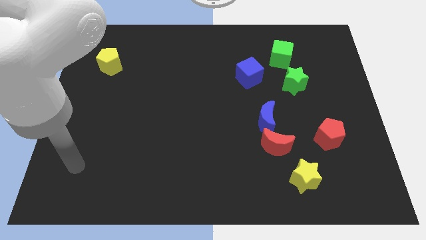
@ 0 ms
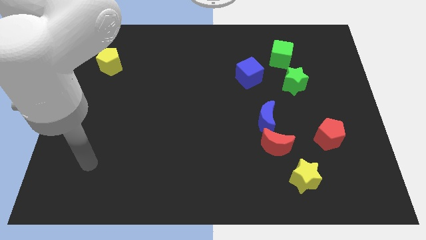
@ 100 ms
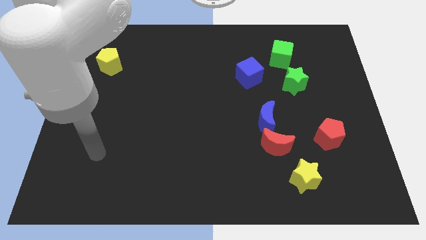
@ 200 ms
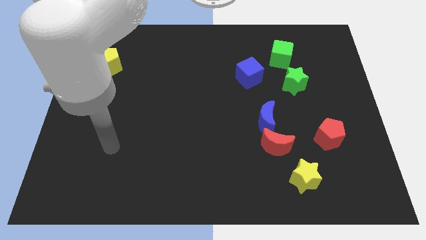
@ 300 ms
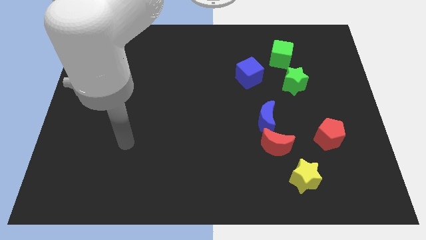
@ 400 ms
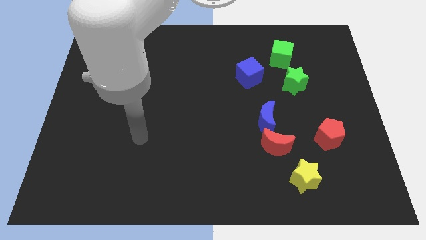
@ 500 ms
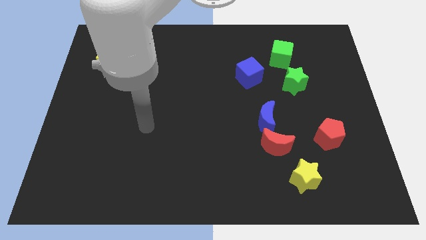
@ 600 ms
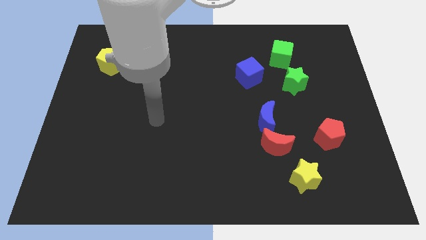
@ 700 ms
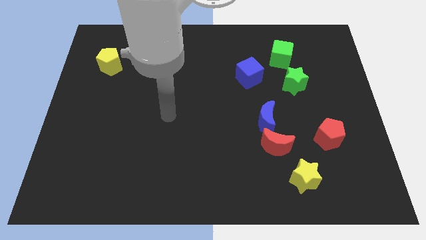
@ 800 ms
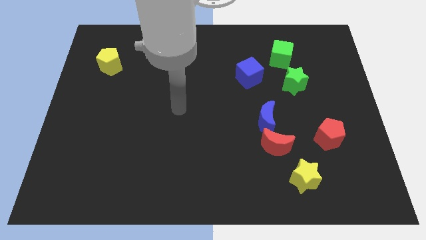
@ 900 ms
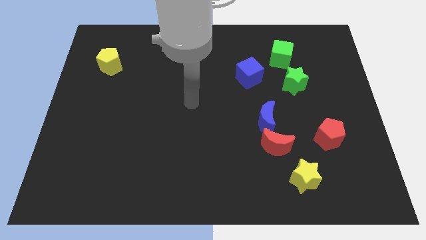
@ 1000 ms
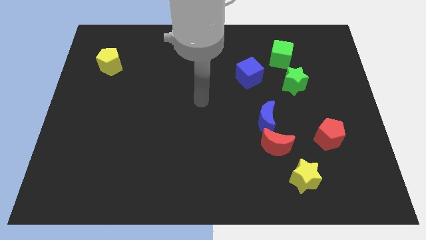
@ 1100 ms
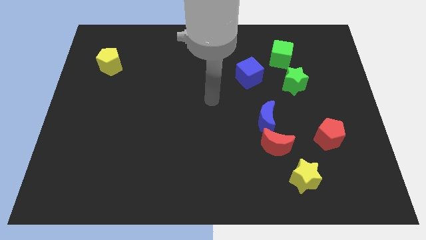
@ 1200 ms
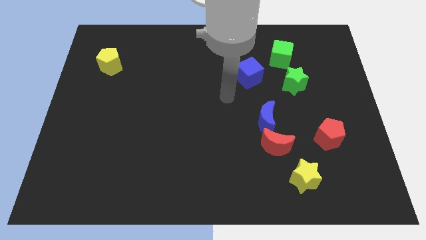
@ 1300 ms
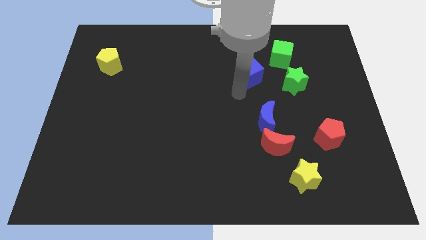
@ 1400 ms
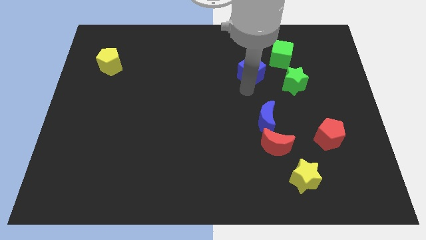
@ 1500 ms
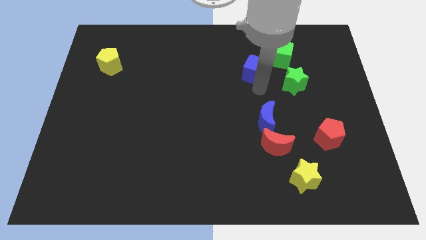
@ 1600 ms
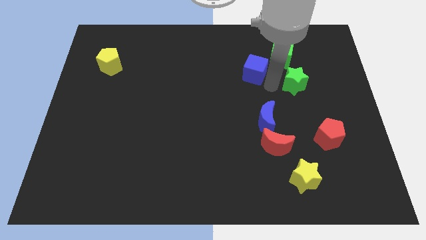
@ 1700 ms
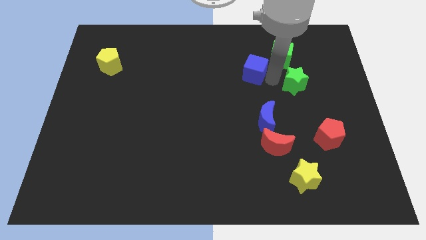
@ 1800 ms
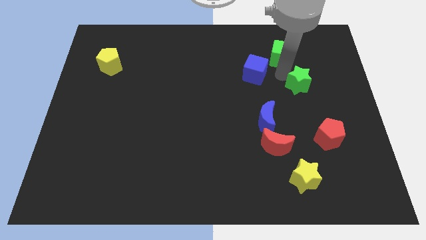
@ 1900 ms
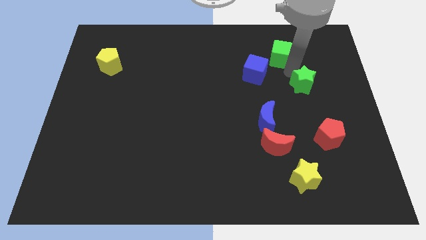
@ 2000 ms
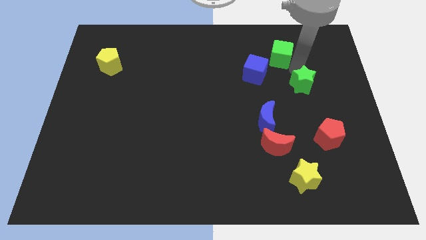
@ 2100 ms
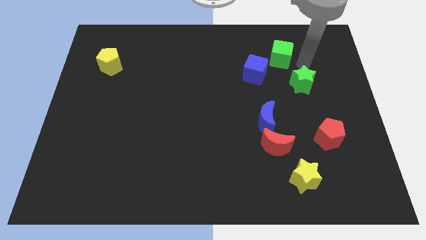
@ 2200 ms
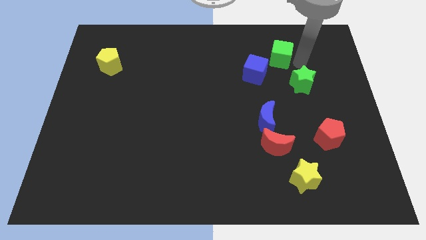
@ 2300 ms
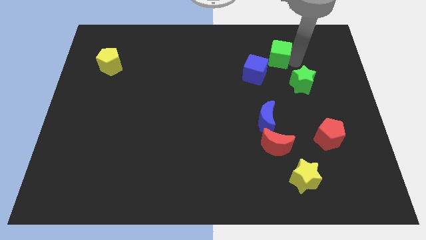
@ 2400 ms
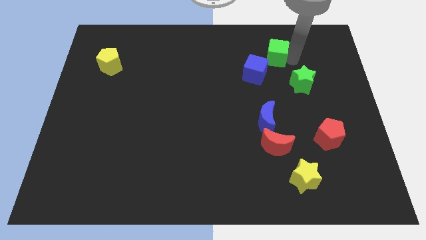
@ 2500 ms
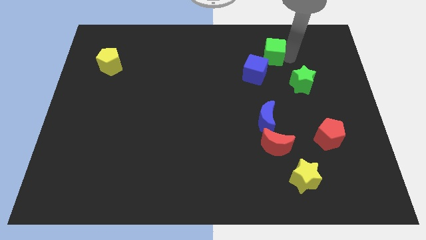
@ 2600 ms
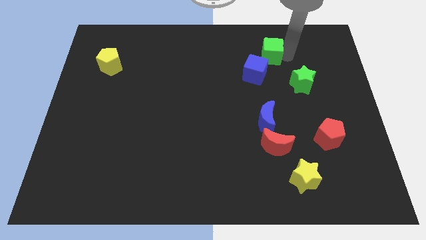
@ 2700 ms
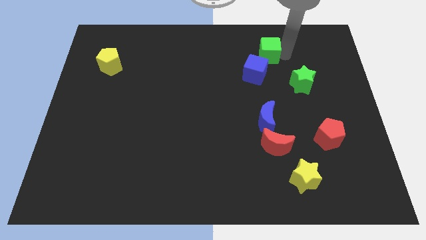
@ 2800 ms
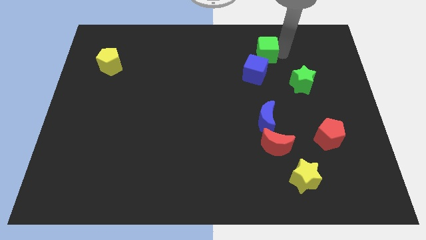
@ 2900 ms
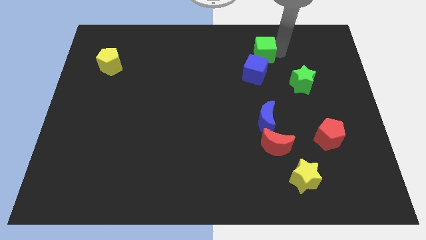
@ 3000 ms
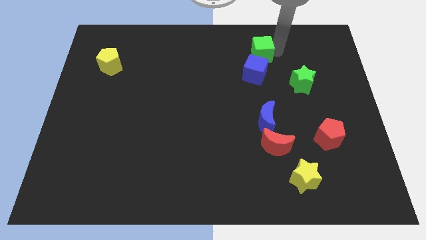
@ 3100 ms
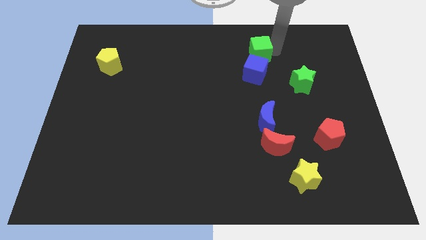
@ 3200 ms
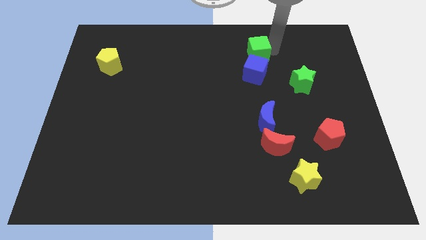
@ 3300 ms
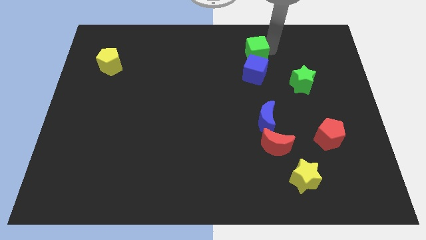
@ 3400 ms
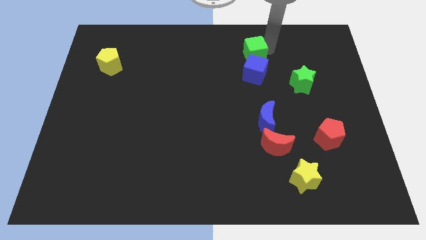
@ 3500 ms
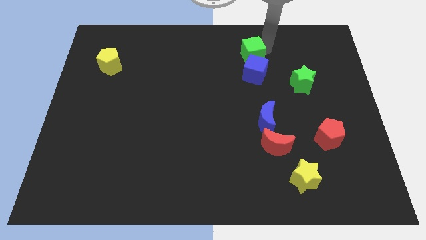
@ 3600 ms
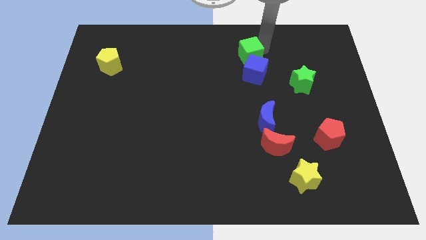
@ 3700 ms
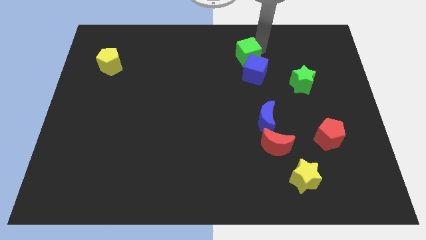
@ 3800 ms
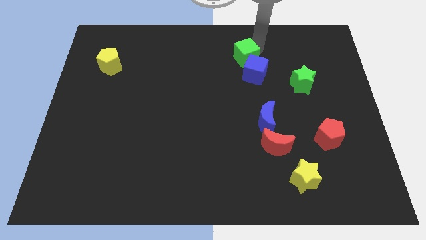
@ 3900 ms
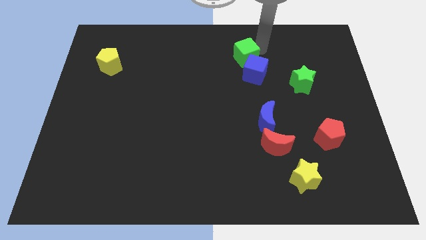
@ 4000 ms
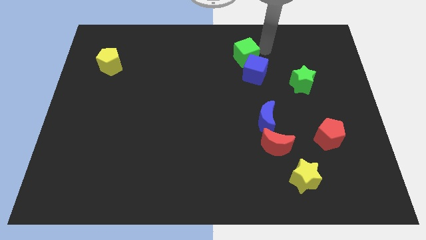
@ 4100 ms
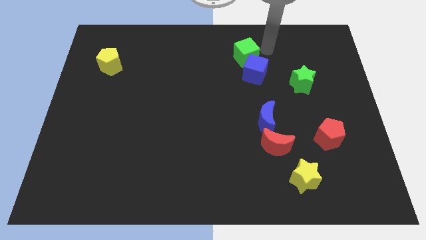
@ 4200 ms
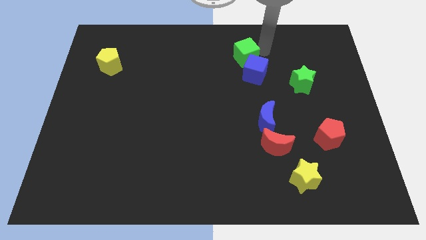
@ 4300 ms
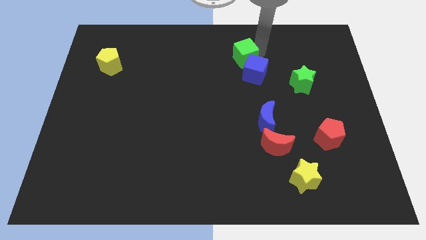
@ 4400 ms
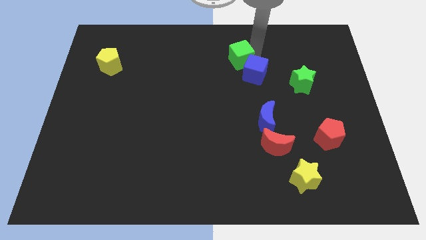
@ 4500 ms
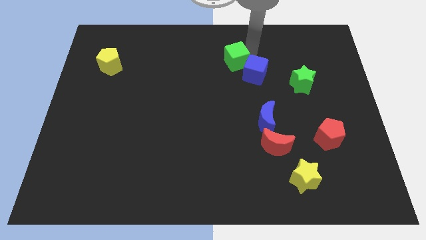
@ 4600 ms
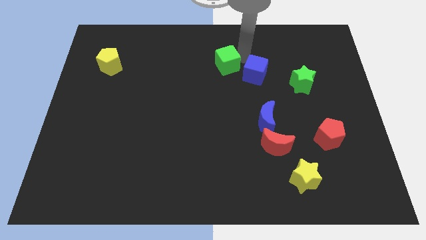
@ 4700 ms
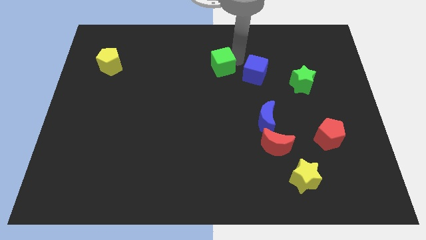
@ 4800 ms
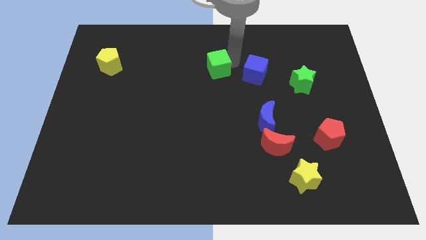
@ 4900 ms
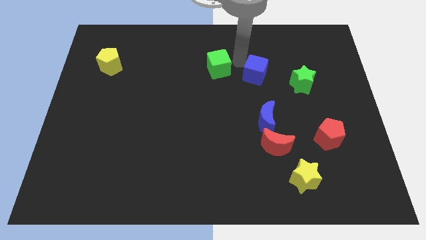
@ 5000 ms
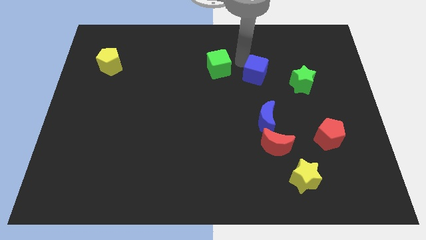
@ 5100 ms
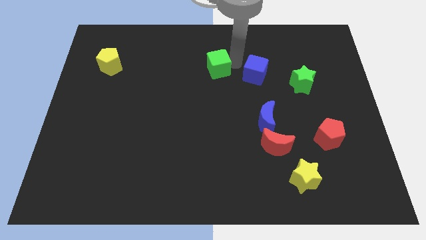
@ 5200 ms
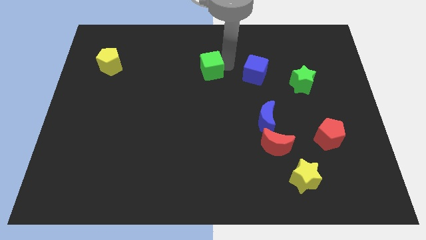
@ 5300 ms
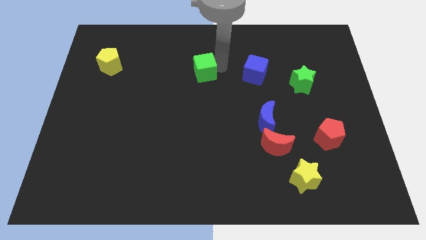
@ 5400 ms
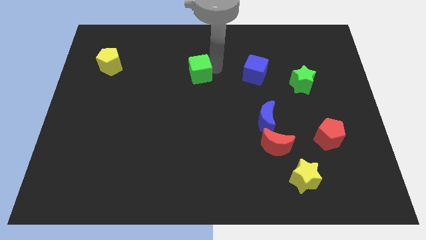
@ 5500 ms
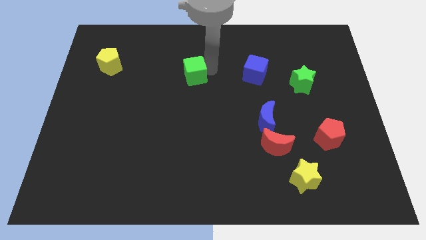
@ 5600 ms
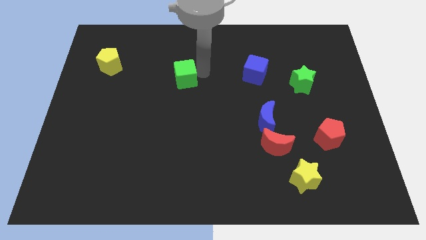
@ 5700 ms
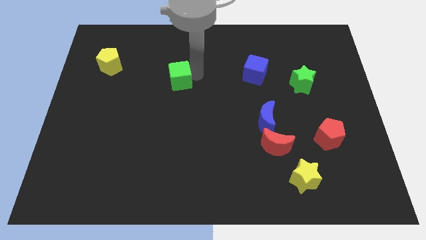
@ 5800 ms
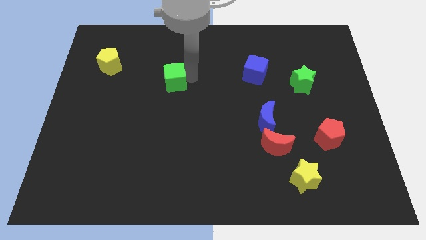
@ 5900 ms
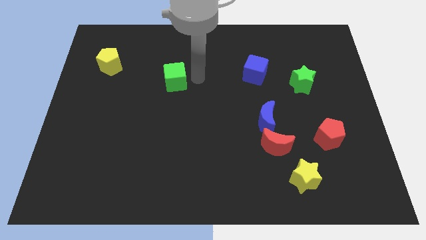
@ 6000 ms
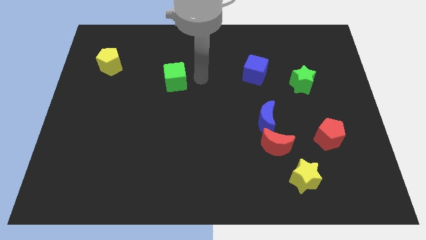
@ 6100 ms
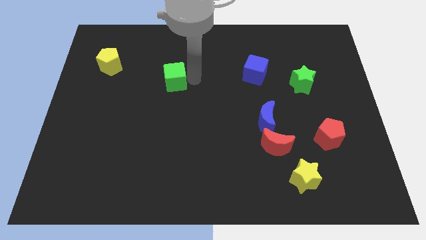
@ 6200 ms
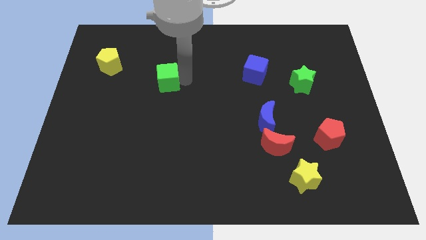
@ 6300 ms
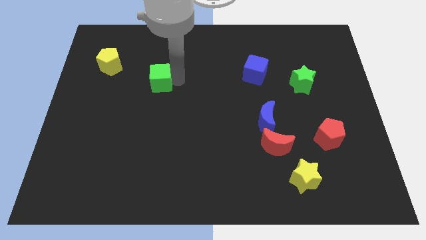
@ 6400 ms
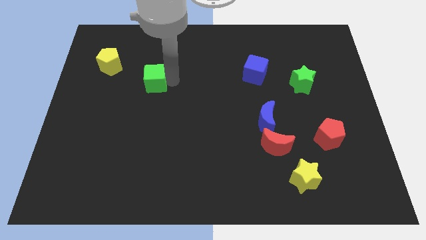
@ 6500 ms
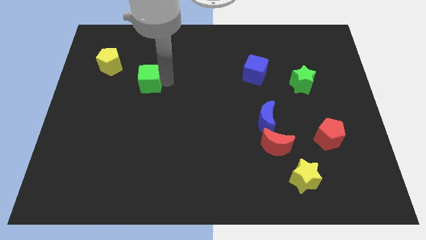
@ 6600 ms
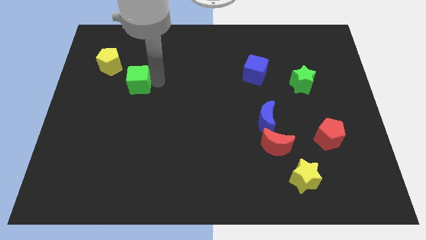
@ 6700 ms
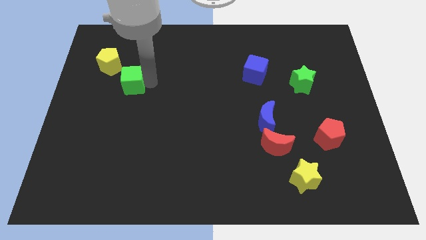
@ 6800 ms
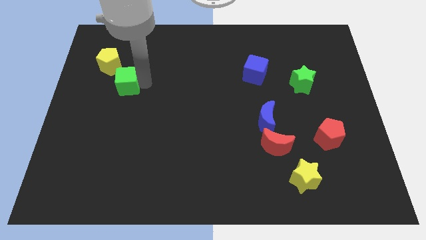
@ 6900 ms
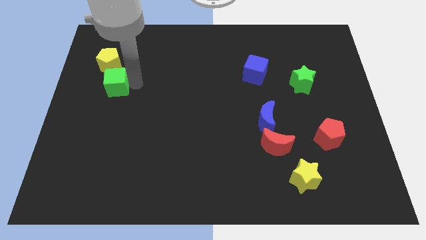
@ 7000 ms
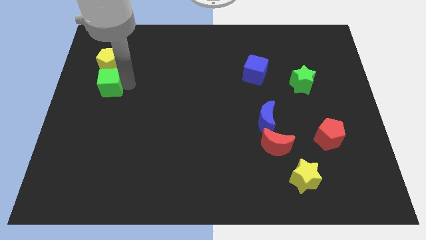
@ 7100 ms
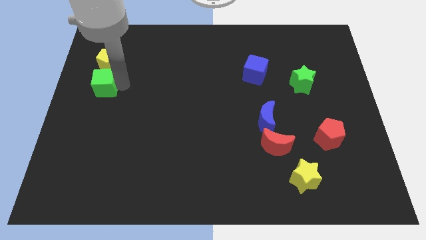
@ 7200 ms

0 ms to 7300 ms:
push the green cube to the left side
